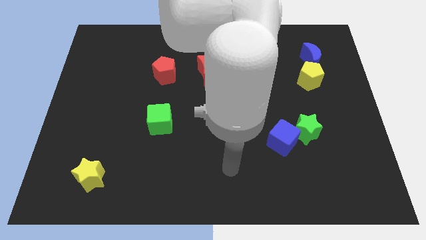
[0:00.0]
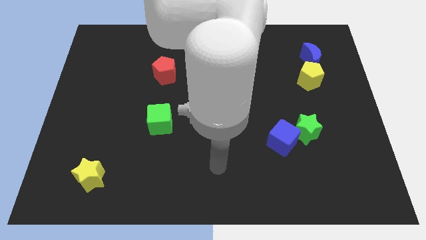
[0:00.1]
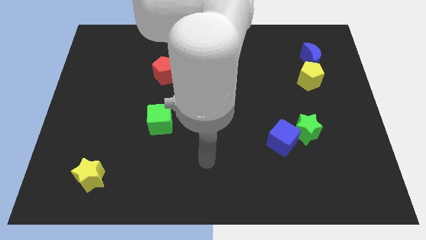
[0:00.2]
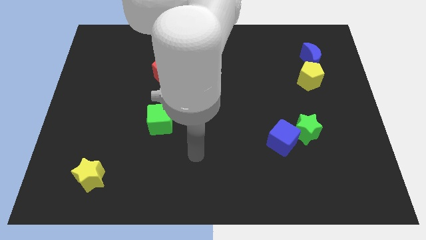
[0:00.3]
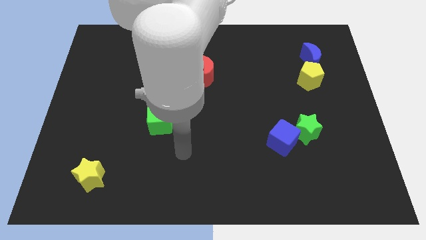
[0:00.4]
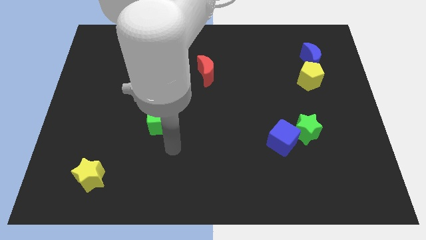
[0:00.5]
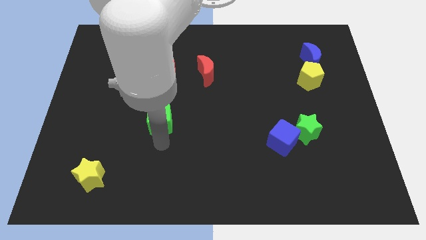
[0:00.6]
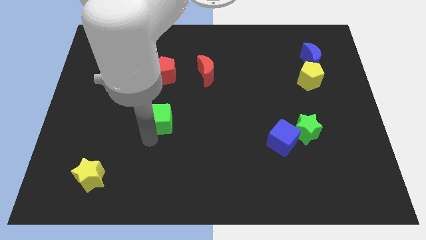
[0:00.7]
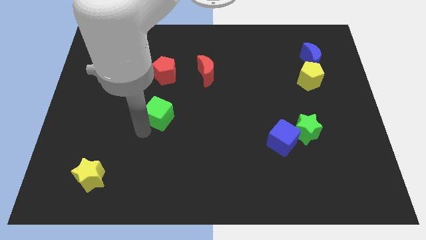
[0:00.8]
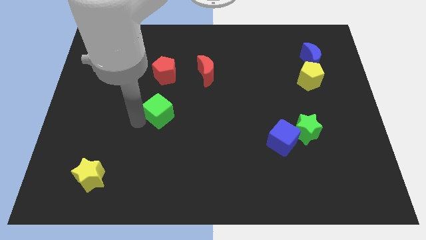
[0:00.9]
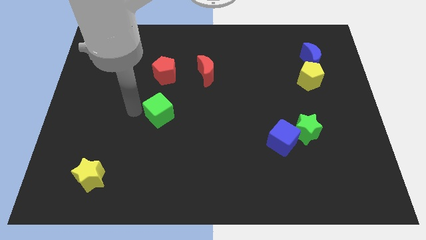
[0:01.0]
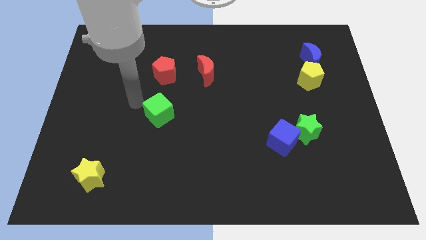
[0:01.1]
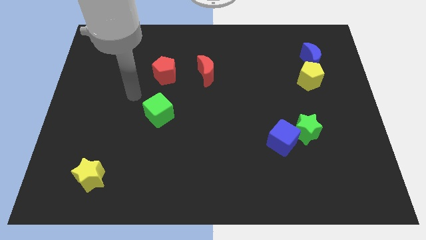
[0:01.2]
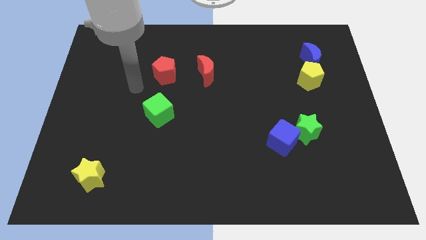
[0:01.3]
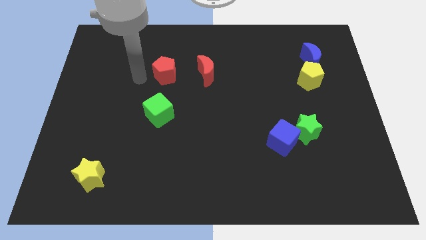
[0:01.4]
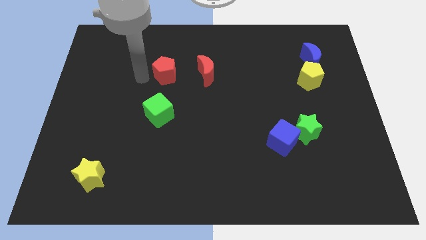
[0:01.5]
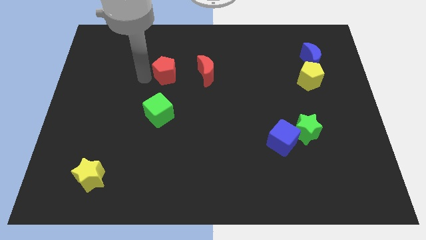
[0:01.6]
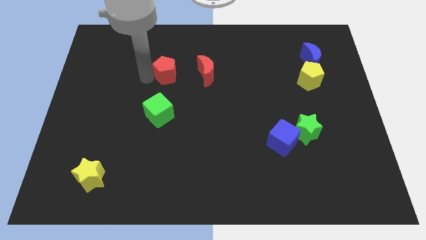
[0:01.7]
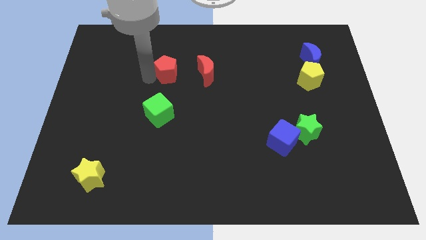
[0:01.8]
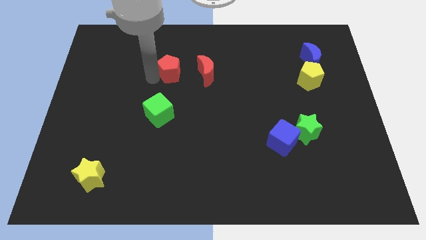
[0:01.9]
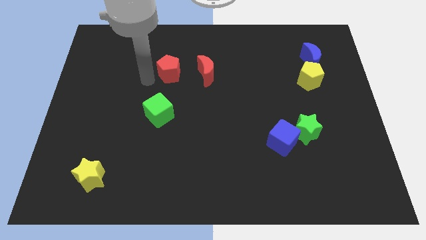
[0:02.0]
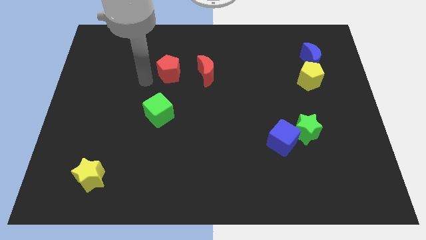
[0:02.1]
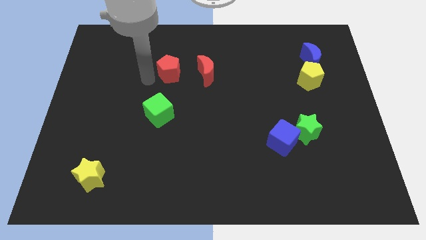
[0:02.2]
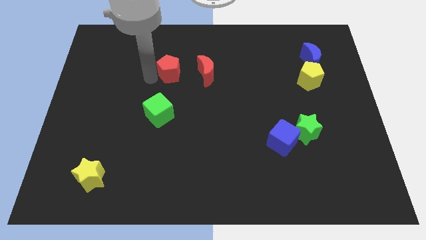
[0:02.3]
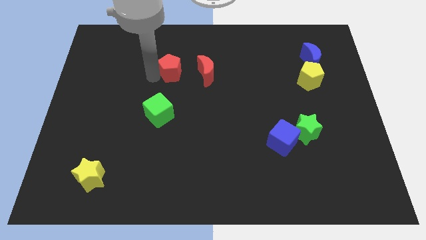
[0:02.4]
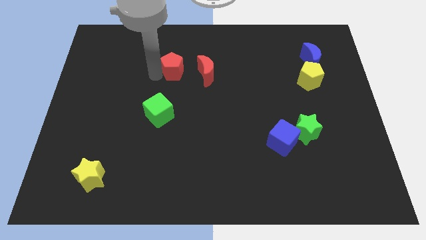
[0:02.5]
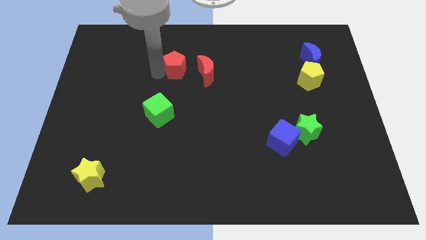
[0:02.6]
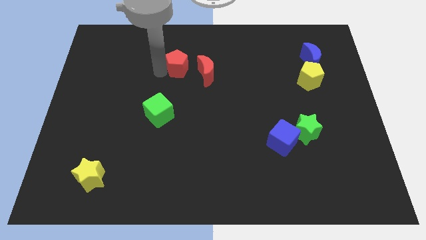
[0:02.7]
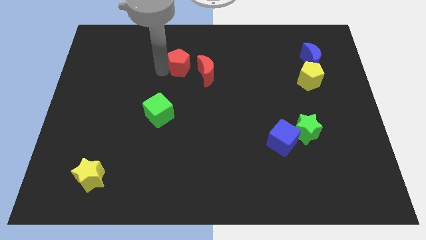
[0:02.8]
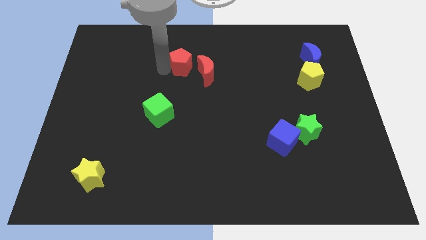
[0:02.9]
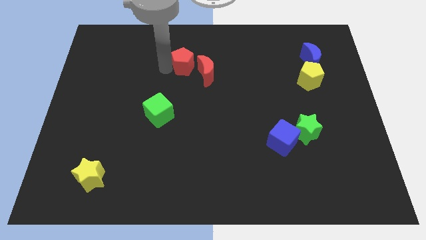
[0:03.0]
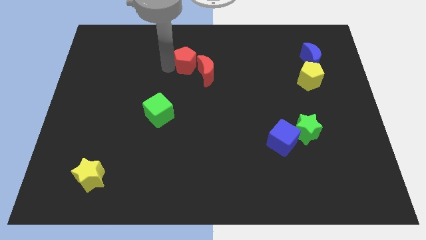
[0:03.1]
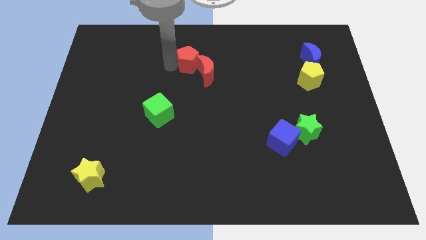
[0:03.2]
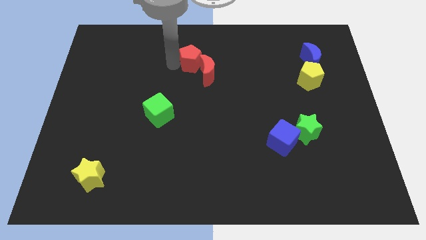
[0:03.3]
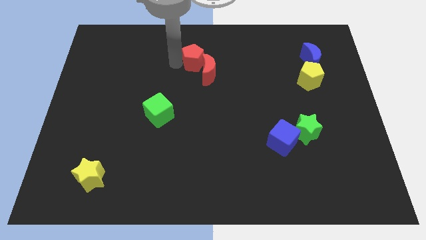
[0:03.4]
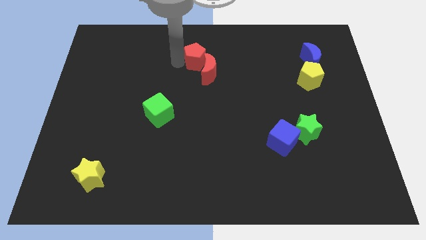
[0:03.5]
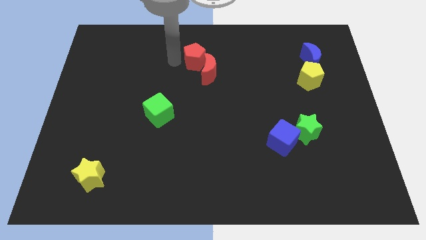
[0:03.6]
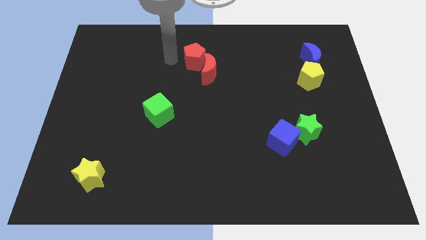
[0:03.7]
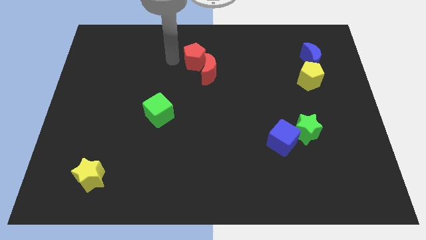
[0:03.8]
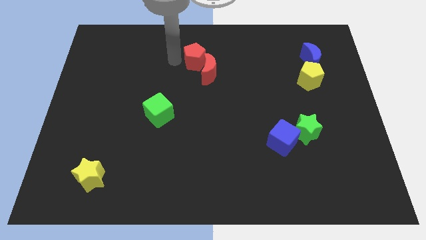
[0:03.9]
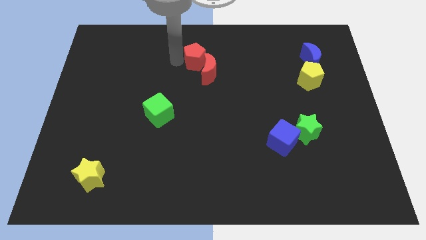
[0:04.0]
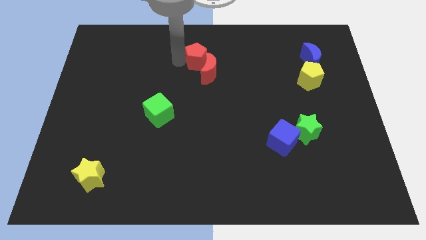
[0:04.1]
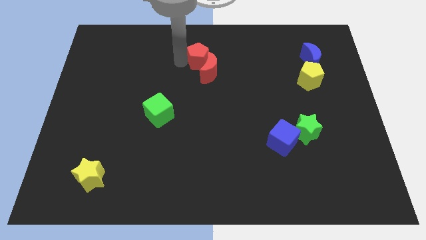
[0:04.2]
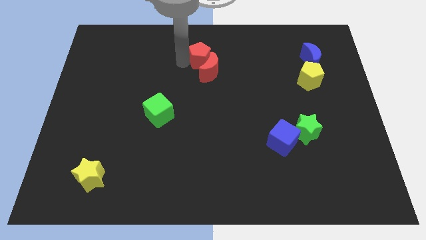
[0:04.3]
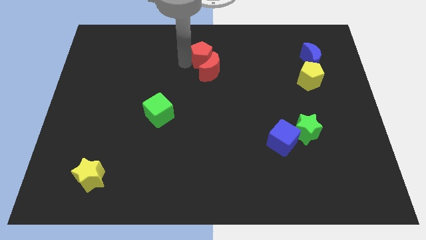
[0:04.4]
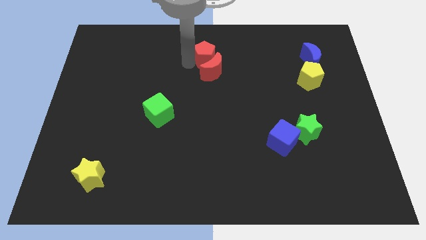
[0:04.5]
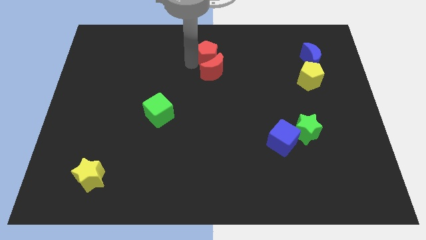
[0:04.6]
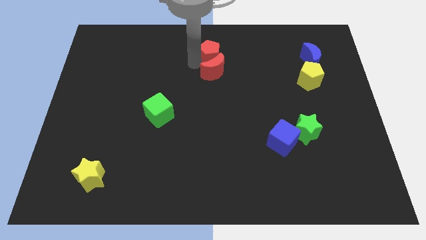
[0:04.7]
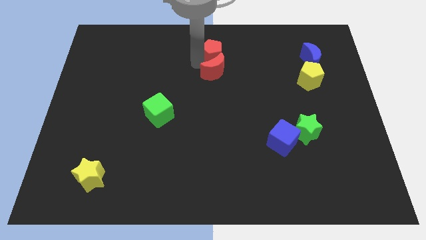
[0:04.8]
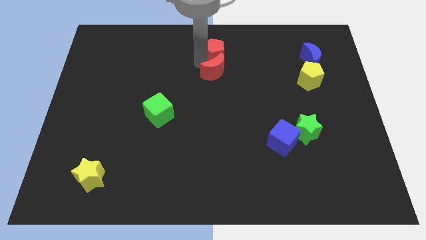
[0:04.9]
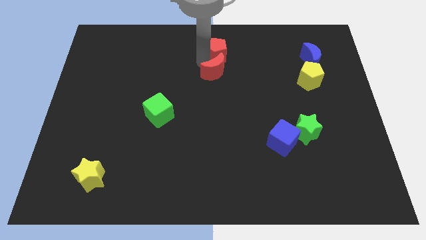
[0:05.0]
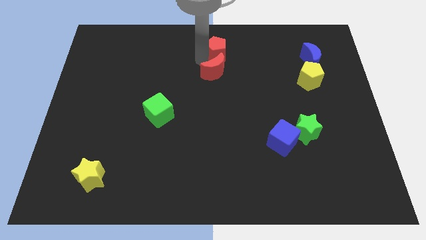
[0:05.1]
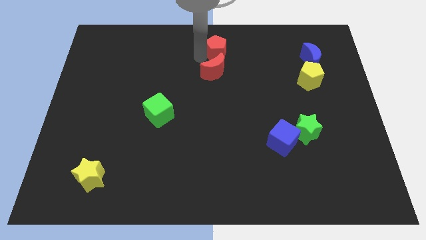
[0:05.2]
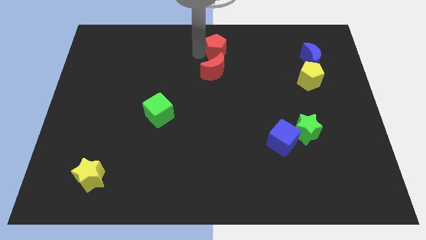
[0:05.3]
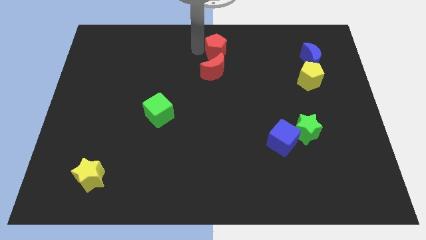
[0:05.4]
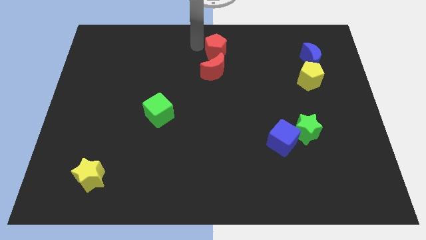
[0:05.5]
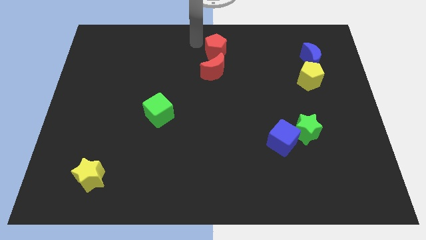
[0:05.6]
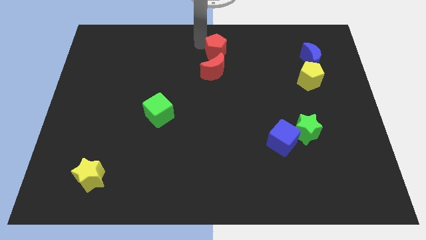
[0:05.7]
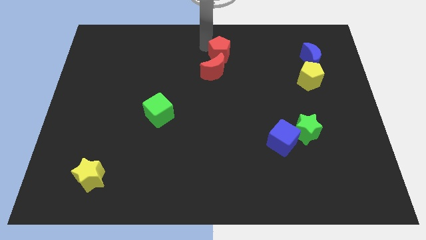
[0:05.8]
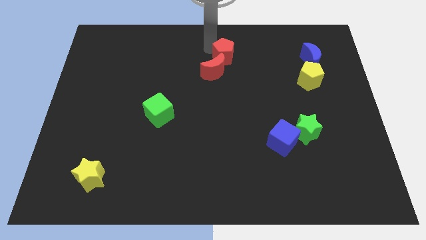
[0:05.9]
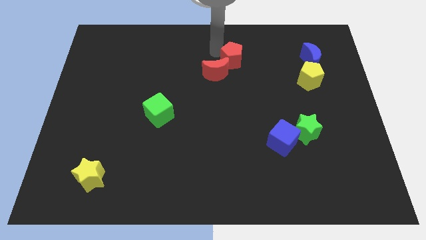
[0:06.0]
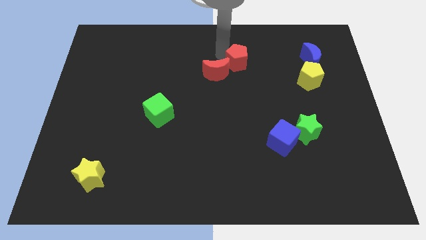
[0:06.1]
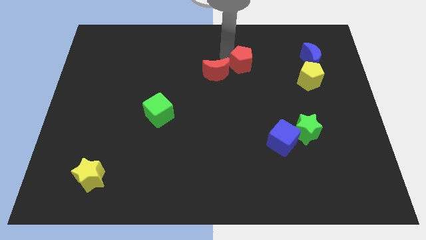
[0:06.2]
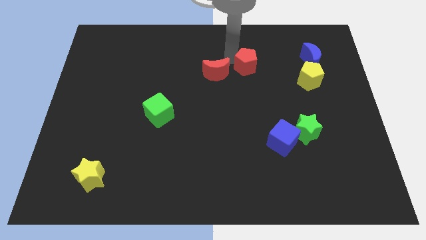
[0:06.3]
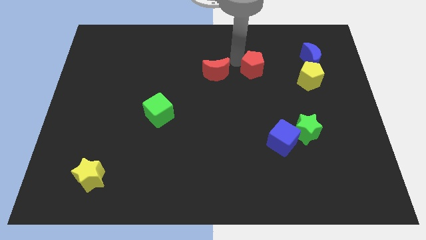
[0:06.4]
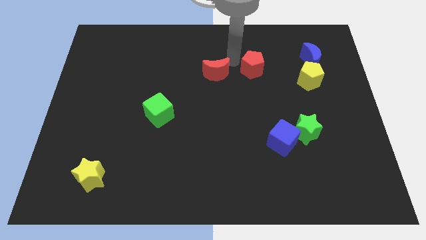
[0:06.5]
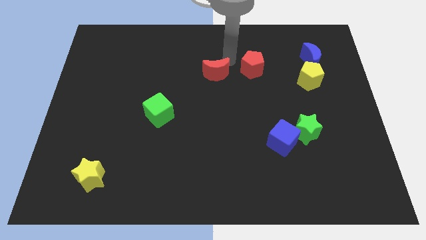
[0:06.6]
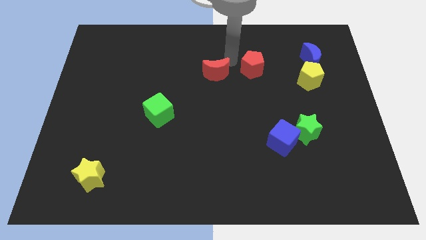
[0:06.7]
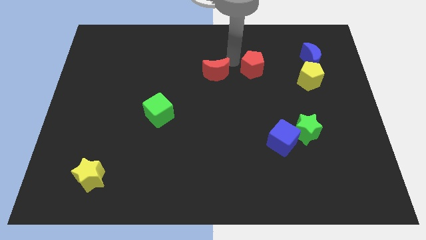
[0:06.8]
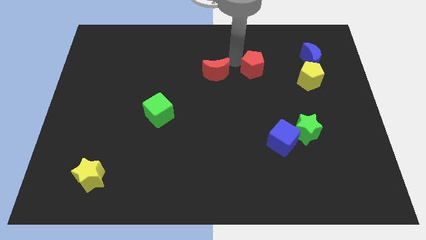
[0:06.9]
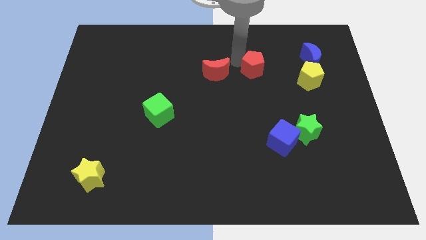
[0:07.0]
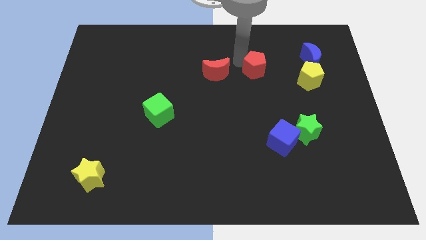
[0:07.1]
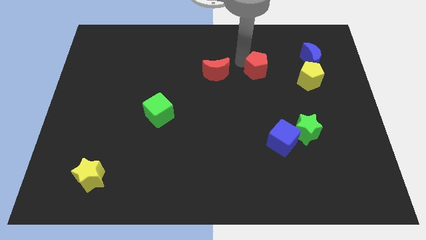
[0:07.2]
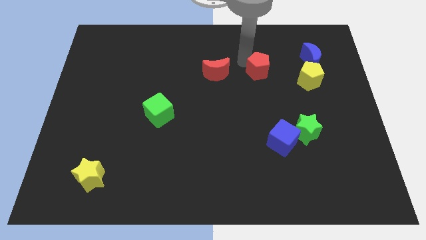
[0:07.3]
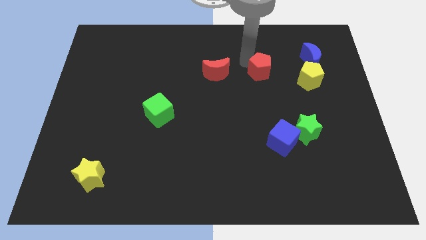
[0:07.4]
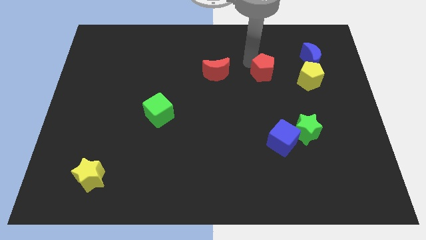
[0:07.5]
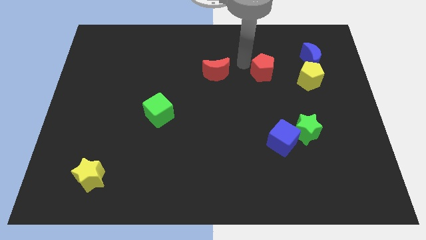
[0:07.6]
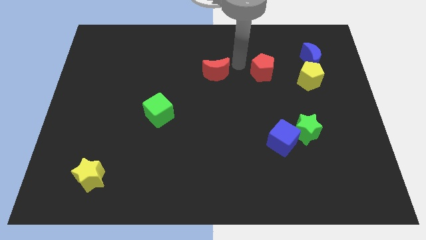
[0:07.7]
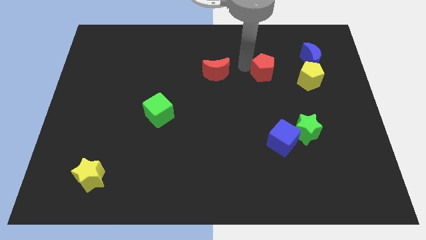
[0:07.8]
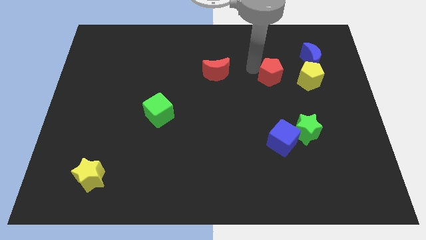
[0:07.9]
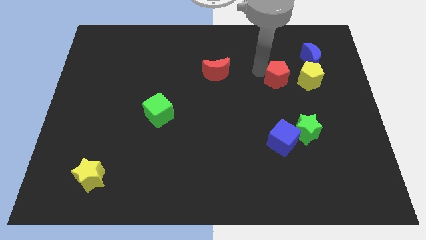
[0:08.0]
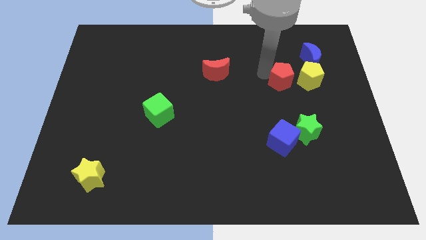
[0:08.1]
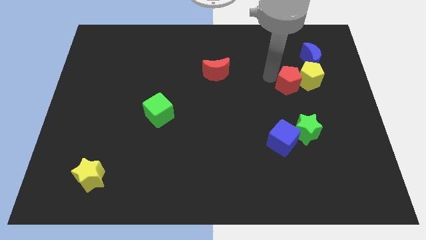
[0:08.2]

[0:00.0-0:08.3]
move the red pentagon next to the yellow pentagon
